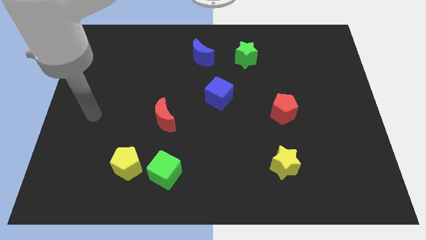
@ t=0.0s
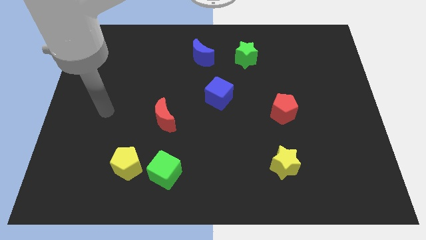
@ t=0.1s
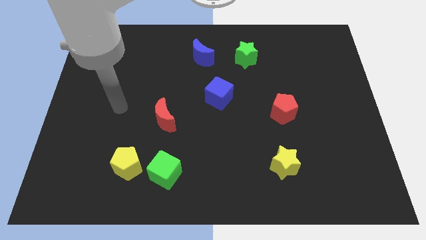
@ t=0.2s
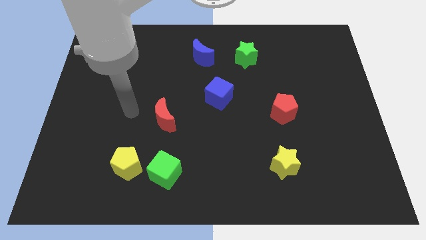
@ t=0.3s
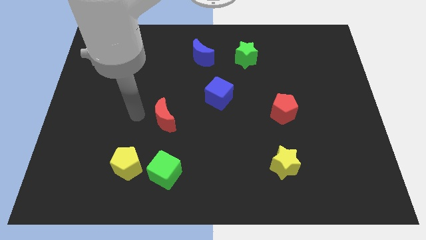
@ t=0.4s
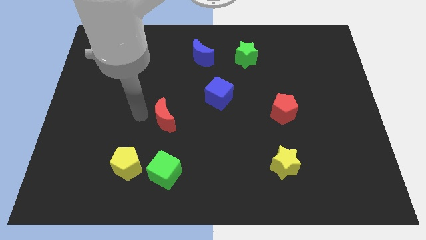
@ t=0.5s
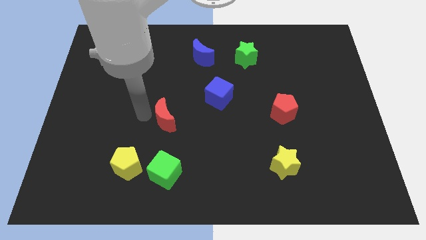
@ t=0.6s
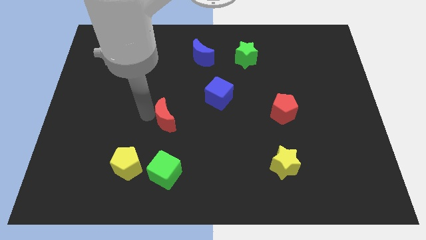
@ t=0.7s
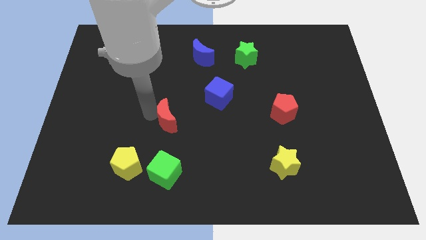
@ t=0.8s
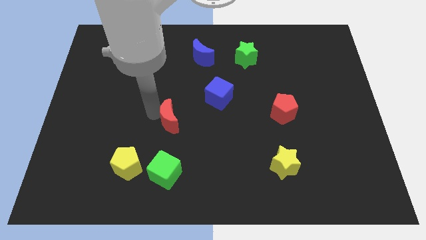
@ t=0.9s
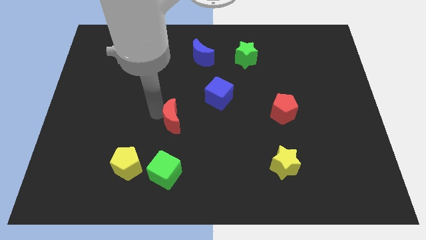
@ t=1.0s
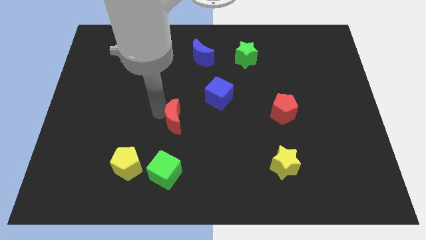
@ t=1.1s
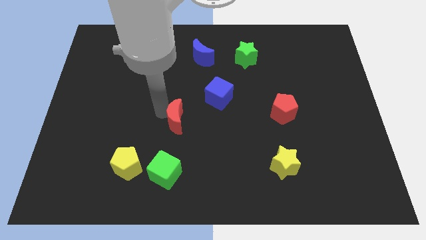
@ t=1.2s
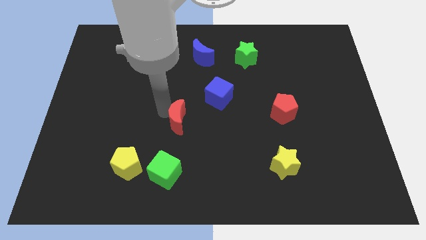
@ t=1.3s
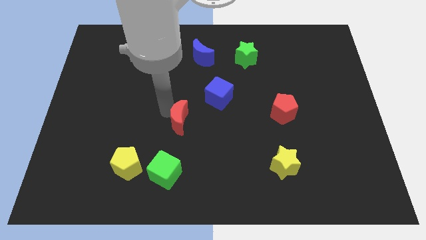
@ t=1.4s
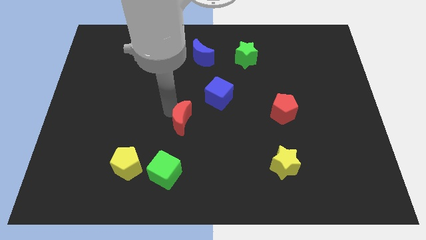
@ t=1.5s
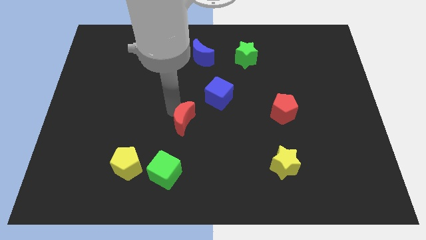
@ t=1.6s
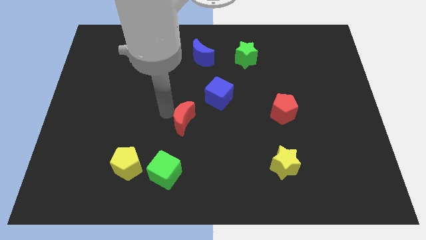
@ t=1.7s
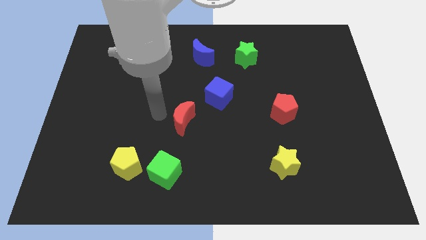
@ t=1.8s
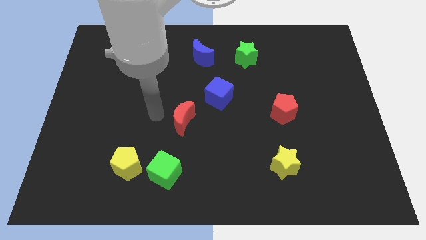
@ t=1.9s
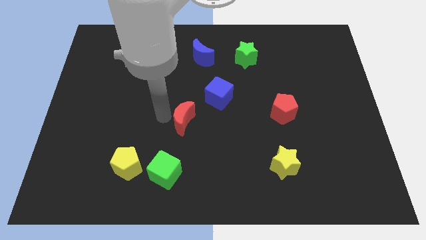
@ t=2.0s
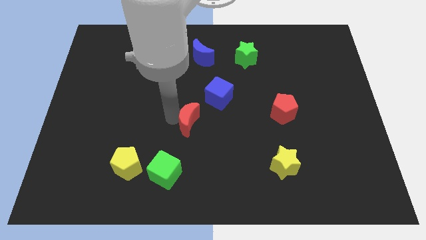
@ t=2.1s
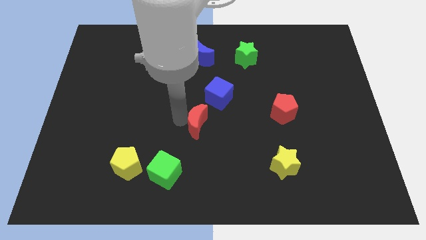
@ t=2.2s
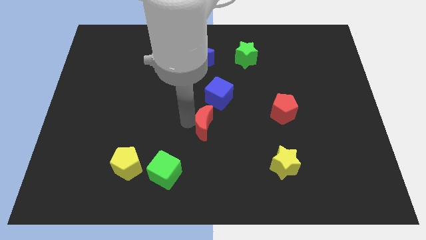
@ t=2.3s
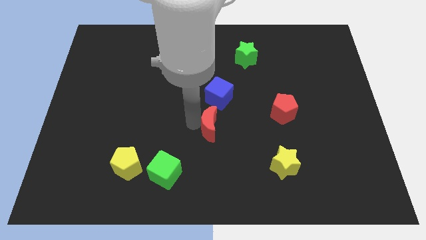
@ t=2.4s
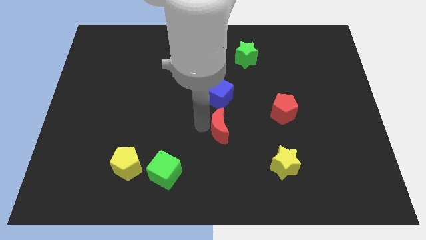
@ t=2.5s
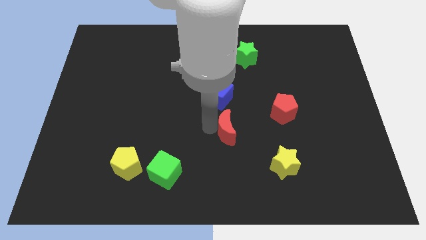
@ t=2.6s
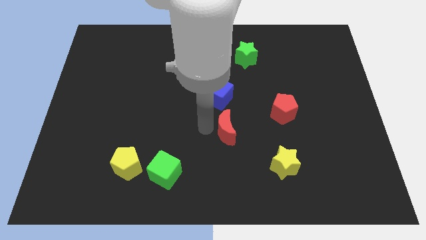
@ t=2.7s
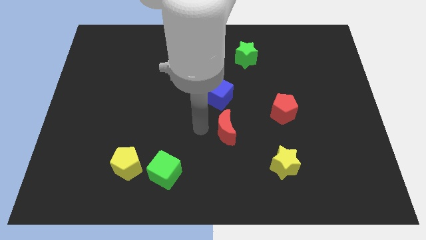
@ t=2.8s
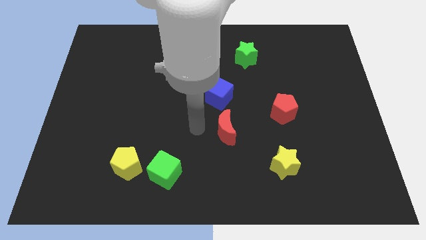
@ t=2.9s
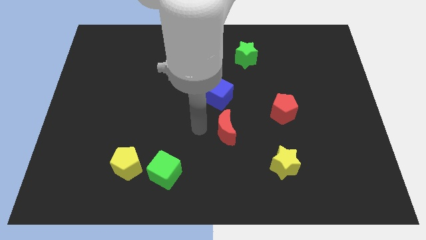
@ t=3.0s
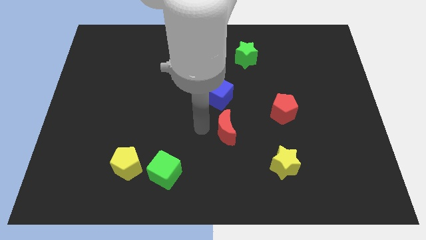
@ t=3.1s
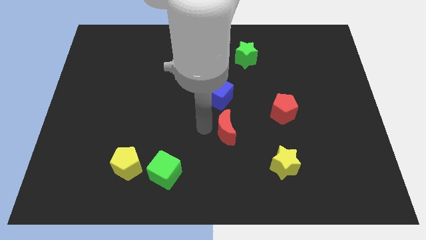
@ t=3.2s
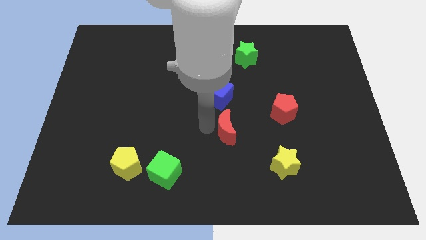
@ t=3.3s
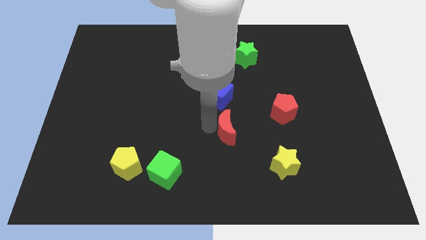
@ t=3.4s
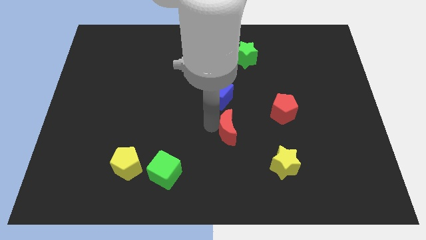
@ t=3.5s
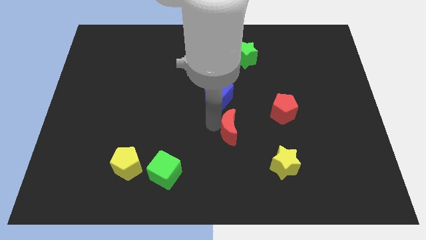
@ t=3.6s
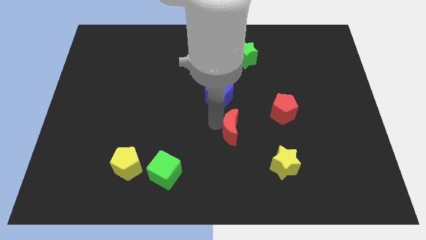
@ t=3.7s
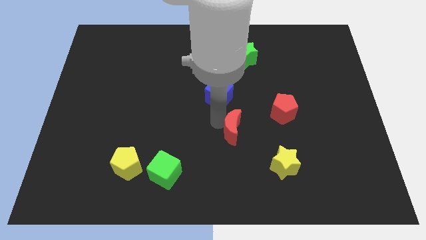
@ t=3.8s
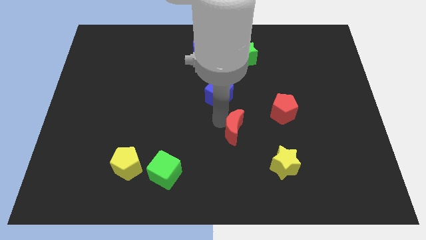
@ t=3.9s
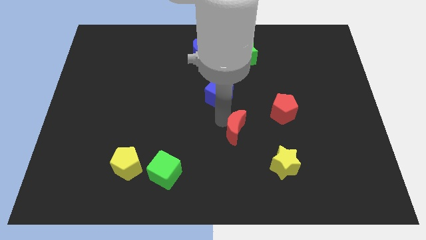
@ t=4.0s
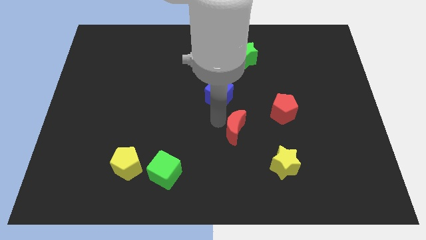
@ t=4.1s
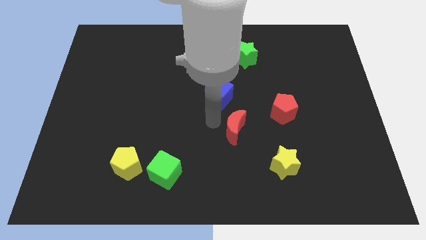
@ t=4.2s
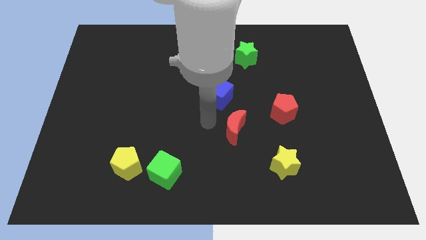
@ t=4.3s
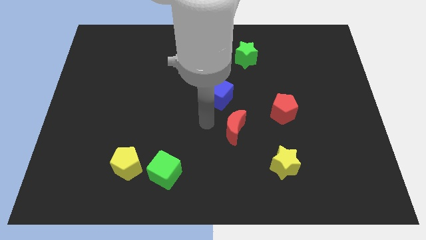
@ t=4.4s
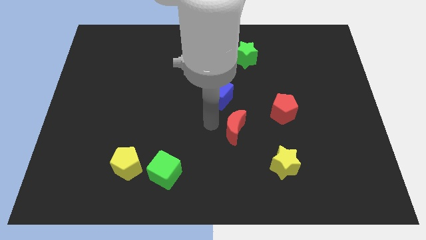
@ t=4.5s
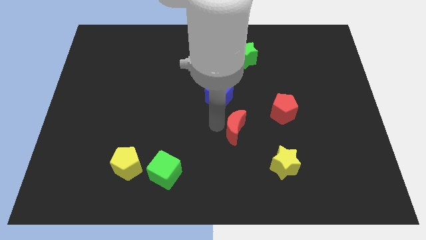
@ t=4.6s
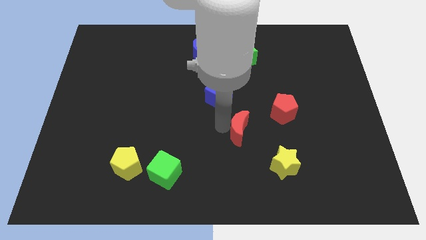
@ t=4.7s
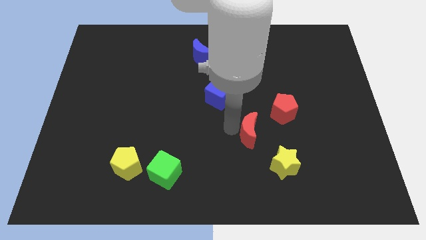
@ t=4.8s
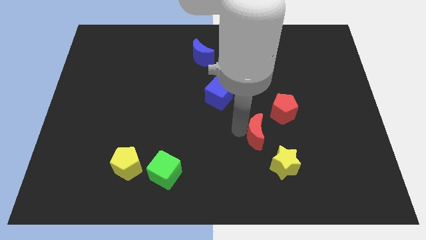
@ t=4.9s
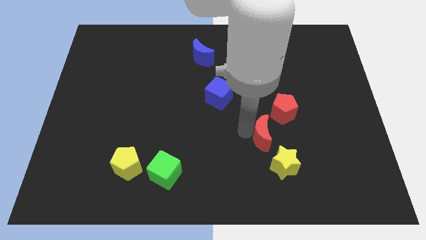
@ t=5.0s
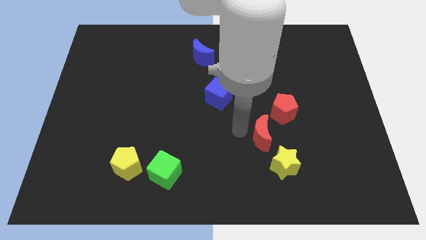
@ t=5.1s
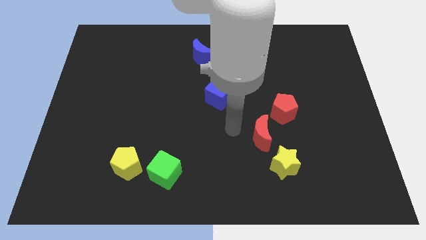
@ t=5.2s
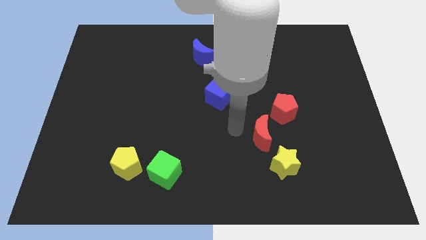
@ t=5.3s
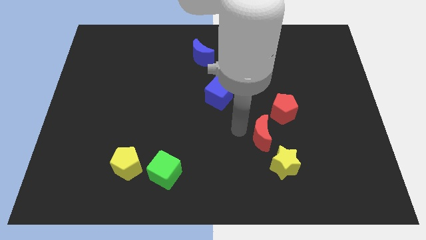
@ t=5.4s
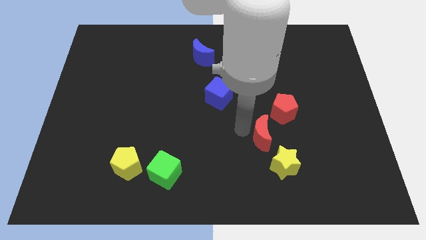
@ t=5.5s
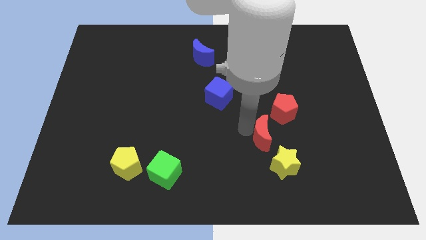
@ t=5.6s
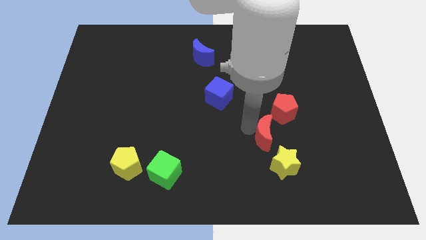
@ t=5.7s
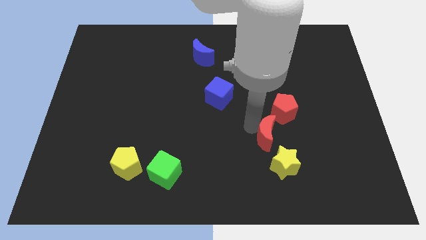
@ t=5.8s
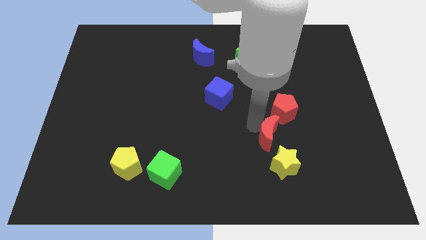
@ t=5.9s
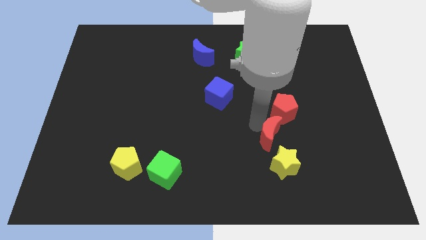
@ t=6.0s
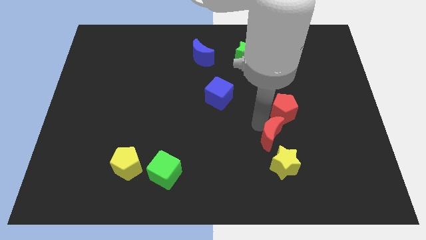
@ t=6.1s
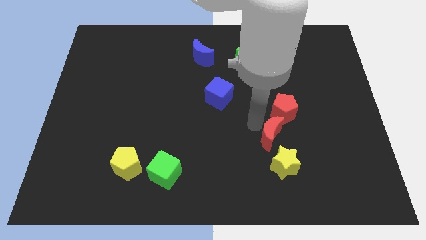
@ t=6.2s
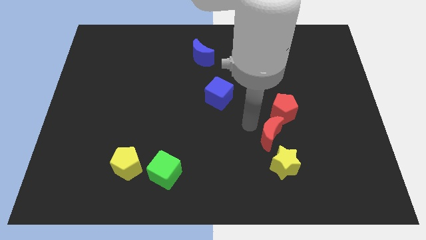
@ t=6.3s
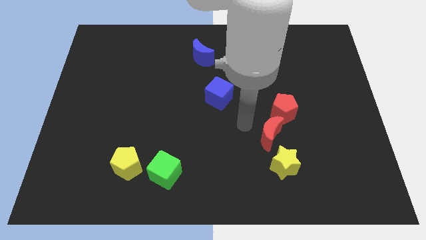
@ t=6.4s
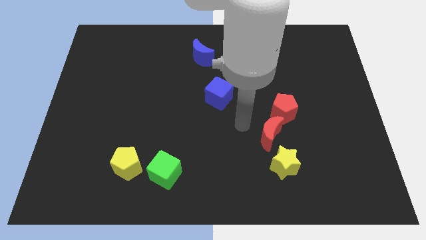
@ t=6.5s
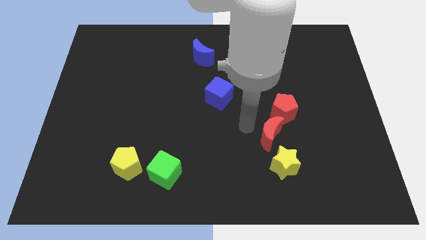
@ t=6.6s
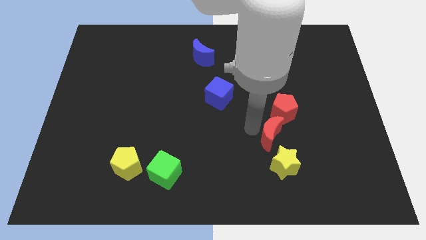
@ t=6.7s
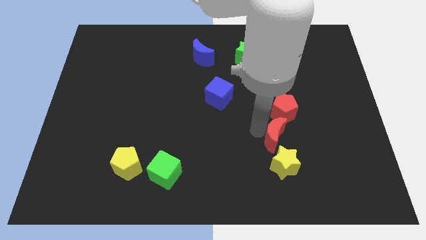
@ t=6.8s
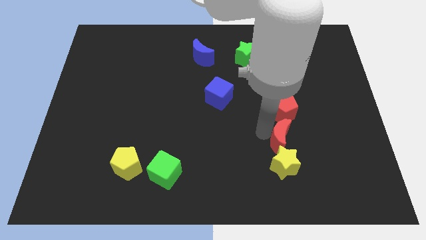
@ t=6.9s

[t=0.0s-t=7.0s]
push the red moon diagonally up and to the right of the yellow star

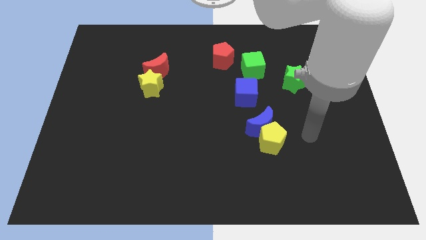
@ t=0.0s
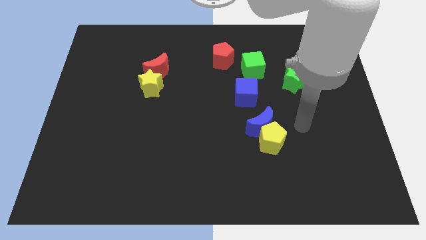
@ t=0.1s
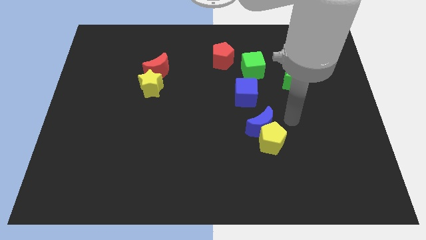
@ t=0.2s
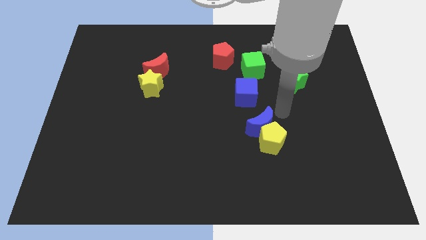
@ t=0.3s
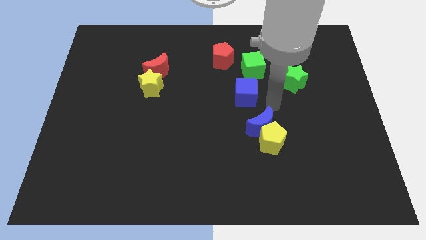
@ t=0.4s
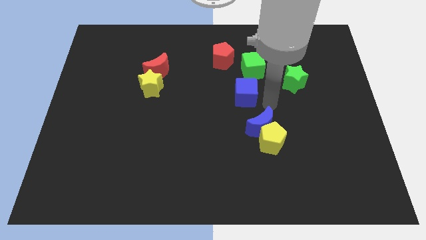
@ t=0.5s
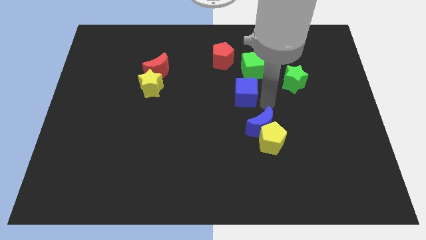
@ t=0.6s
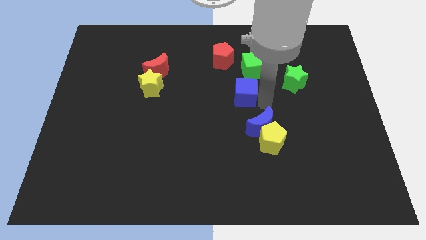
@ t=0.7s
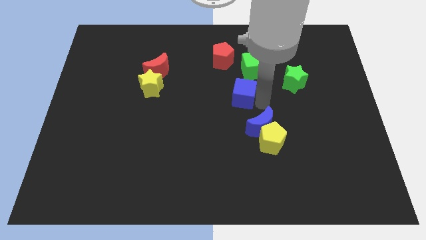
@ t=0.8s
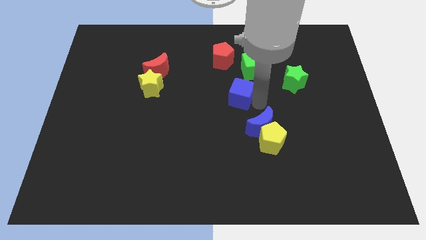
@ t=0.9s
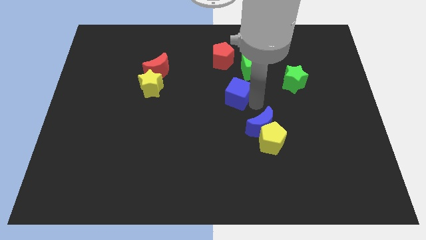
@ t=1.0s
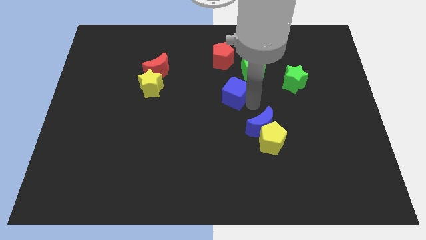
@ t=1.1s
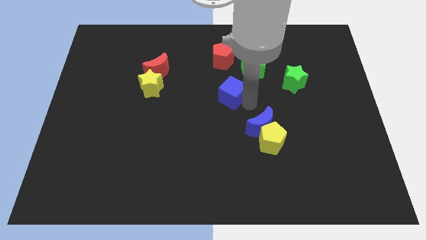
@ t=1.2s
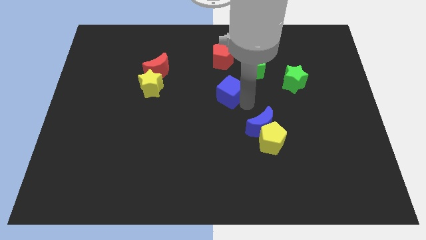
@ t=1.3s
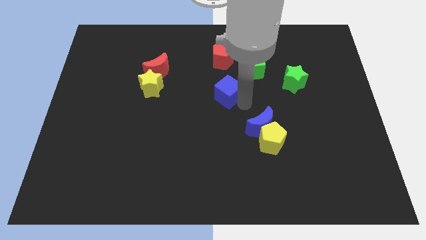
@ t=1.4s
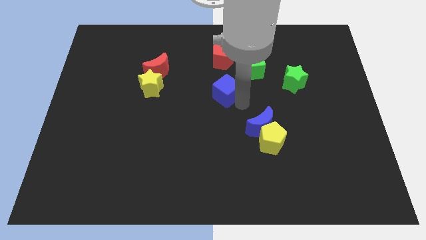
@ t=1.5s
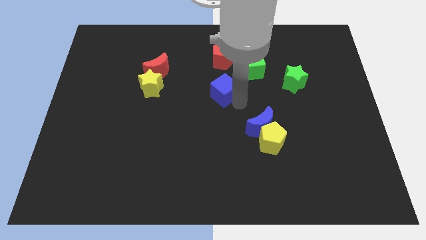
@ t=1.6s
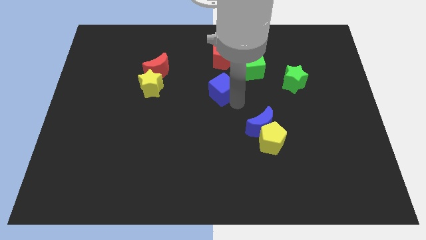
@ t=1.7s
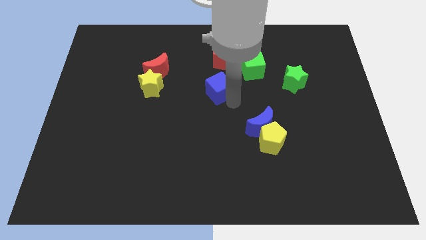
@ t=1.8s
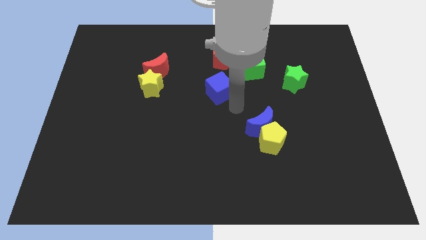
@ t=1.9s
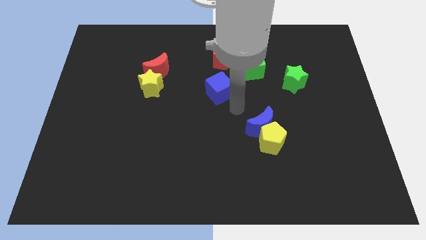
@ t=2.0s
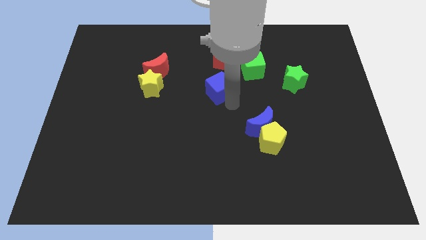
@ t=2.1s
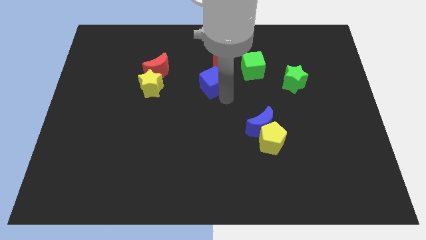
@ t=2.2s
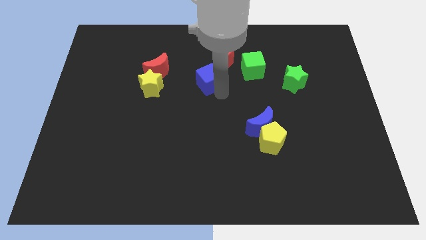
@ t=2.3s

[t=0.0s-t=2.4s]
slide the blue cube right of the red moon
